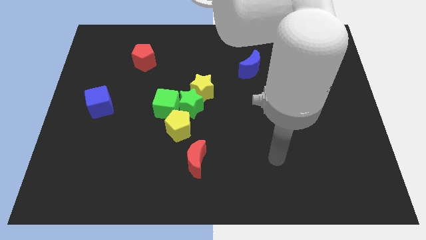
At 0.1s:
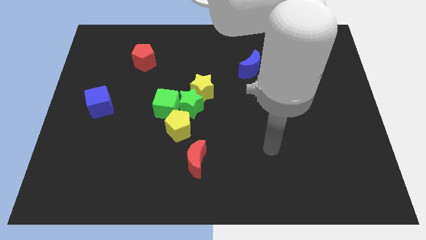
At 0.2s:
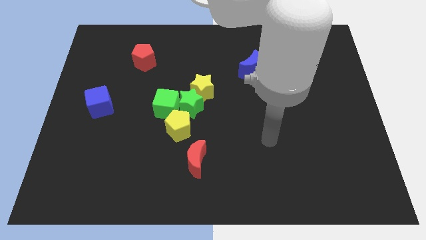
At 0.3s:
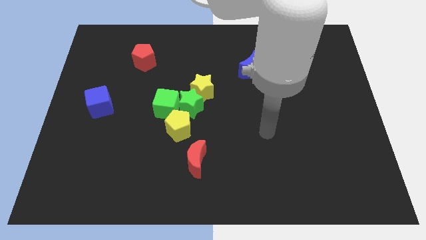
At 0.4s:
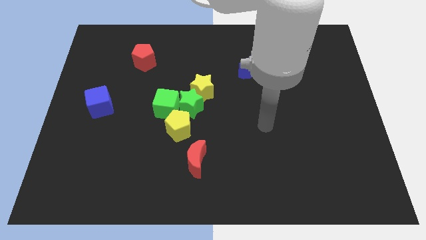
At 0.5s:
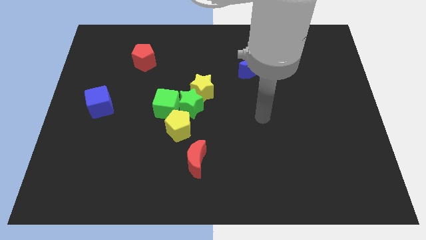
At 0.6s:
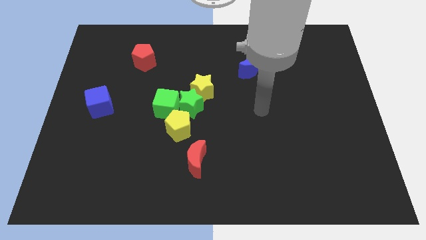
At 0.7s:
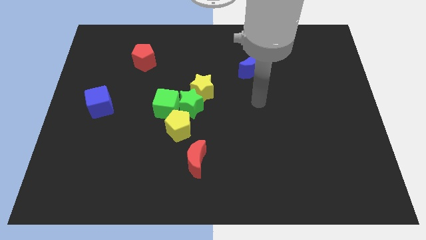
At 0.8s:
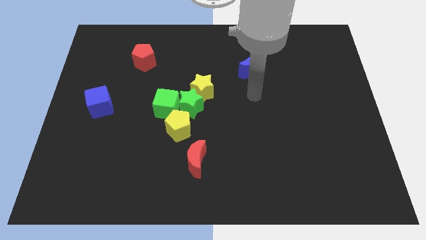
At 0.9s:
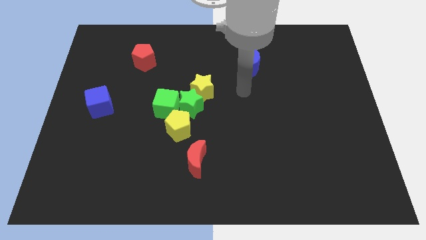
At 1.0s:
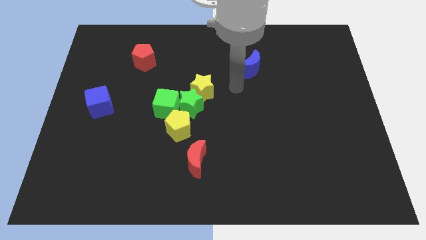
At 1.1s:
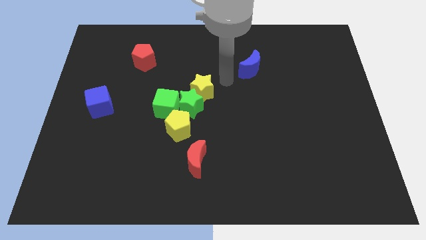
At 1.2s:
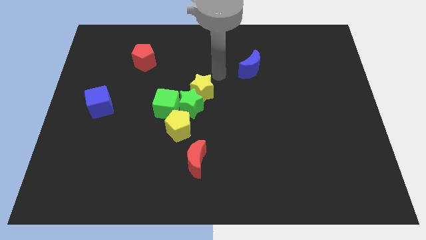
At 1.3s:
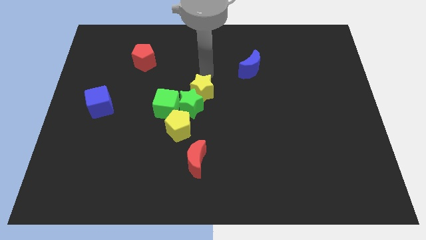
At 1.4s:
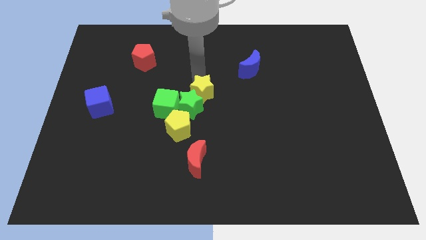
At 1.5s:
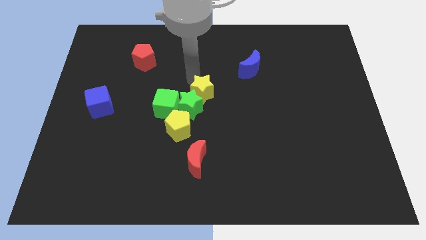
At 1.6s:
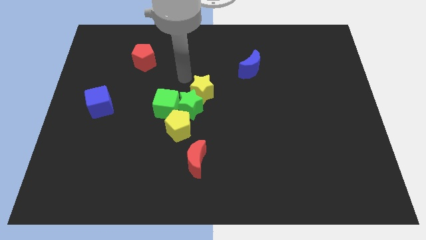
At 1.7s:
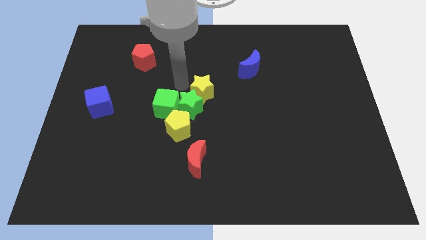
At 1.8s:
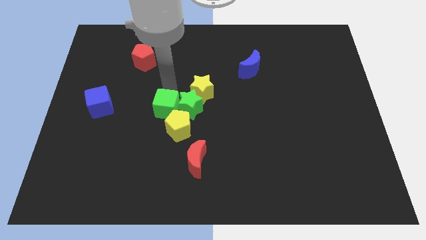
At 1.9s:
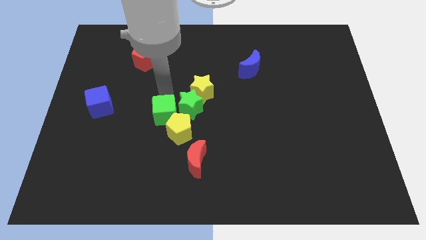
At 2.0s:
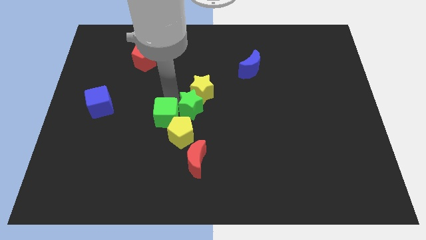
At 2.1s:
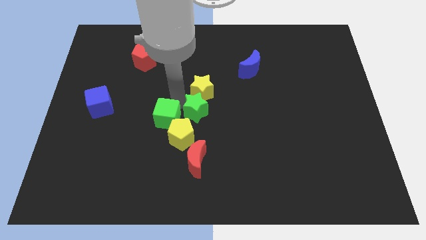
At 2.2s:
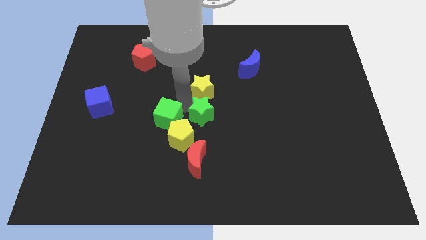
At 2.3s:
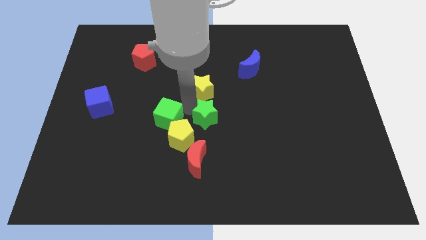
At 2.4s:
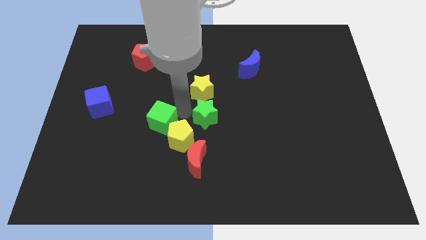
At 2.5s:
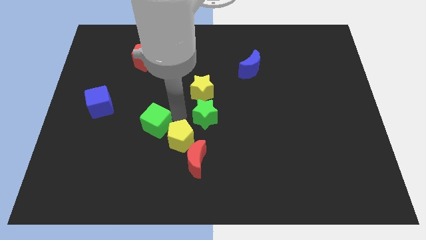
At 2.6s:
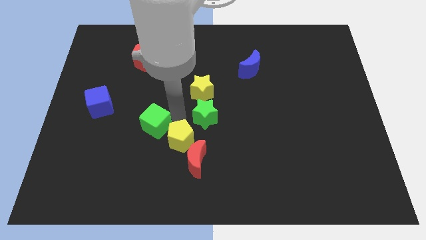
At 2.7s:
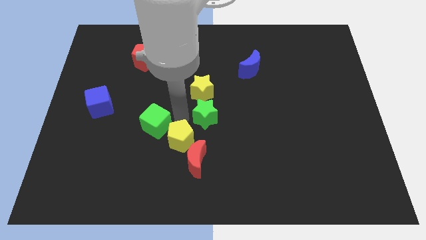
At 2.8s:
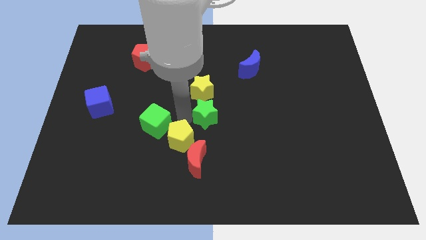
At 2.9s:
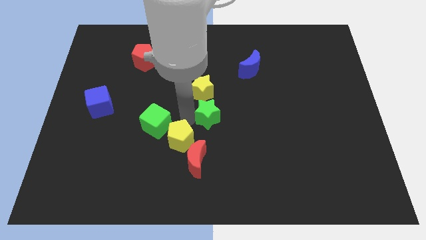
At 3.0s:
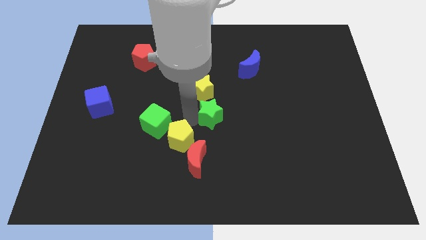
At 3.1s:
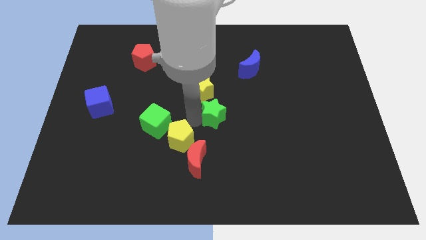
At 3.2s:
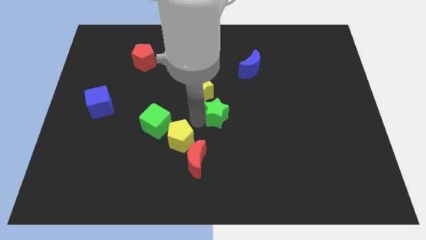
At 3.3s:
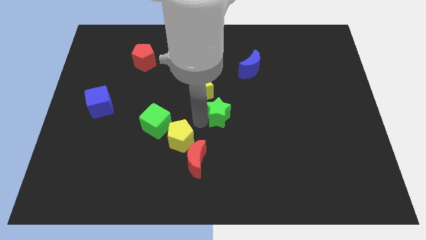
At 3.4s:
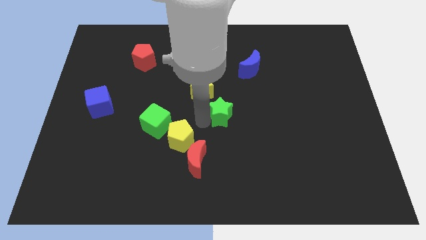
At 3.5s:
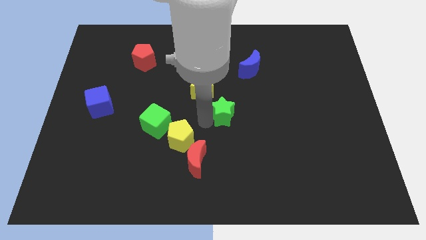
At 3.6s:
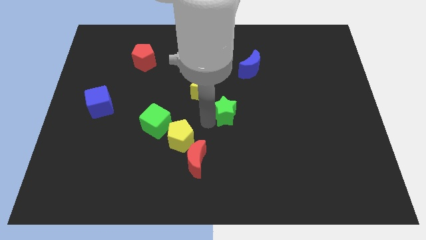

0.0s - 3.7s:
pull the green star apart from the group

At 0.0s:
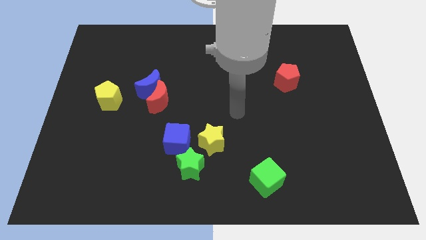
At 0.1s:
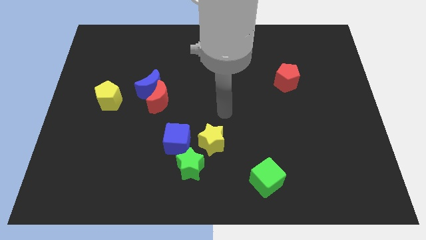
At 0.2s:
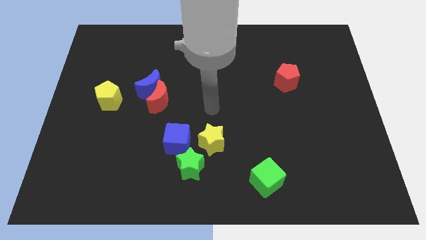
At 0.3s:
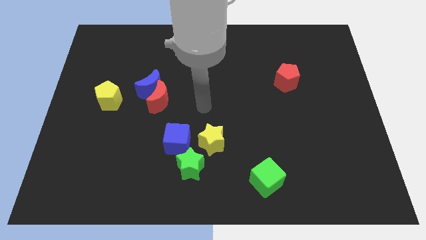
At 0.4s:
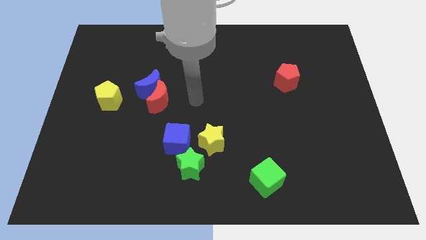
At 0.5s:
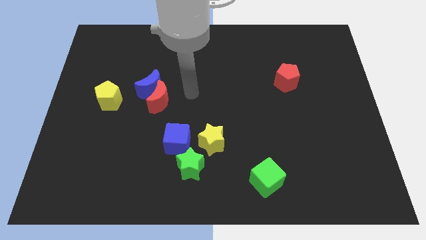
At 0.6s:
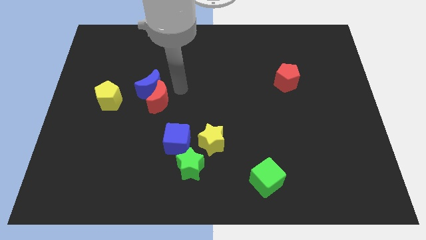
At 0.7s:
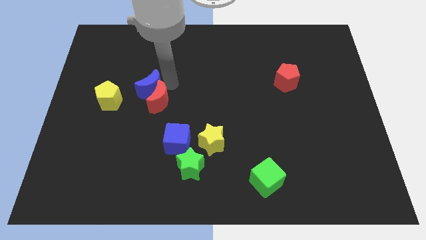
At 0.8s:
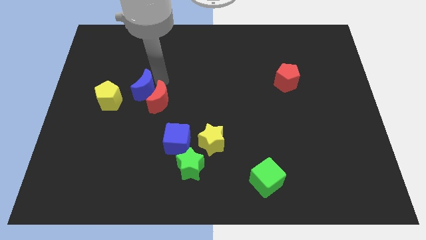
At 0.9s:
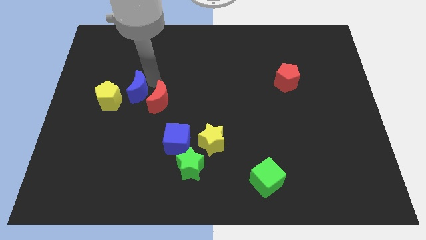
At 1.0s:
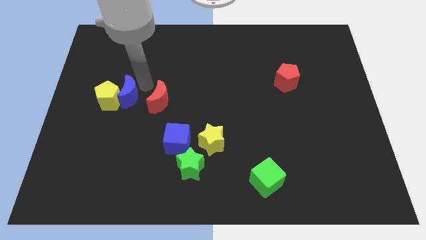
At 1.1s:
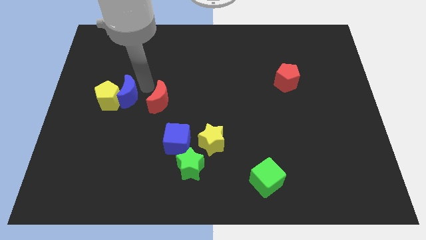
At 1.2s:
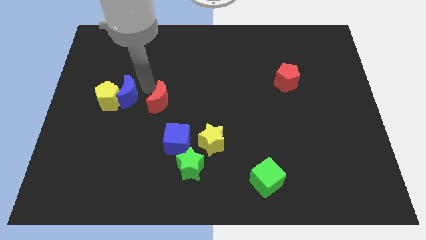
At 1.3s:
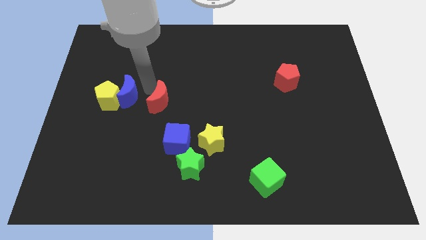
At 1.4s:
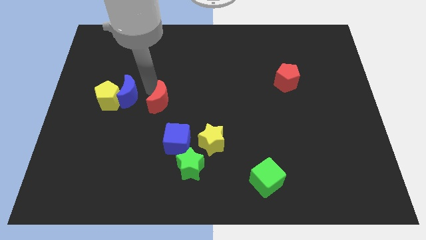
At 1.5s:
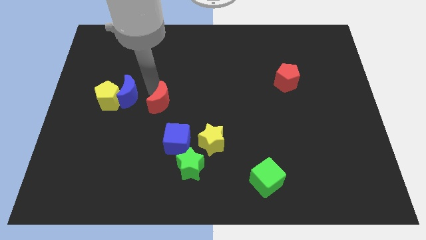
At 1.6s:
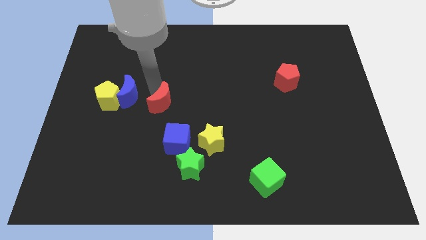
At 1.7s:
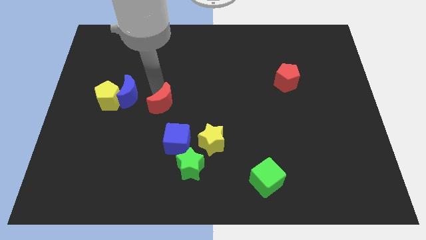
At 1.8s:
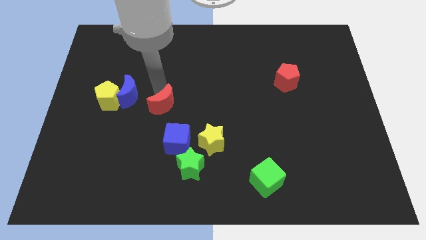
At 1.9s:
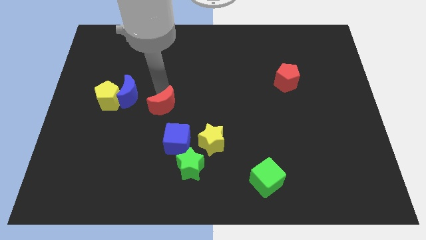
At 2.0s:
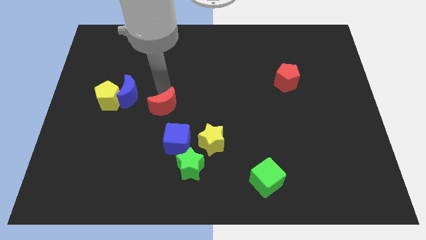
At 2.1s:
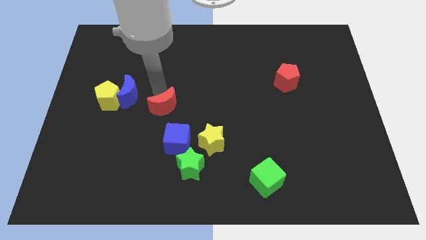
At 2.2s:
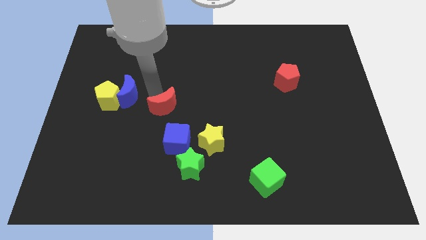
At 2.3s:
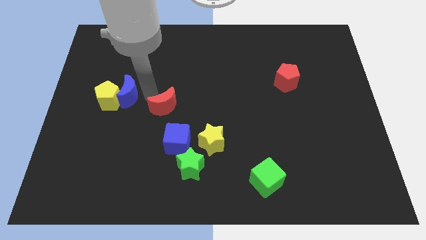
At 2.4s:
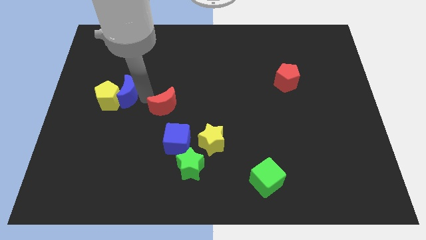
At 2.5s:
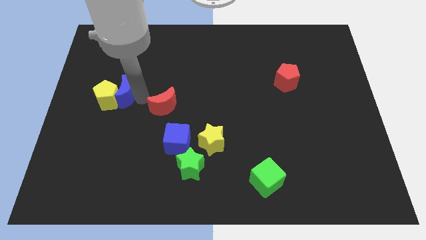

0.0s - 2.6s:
pull the red moon apart from the blue moon

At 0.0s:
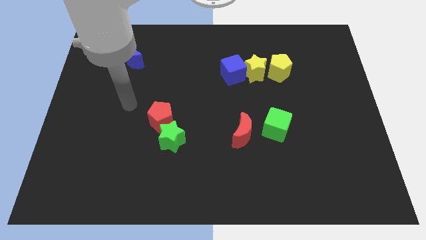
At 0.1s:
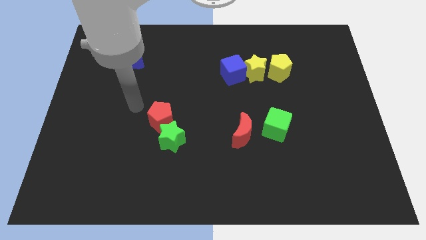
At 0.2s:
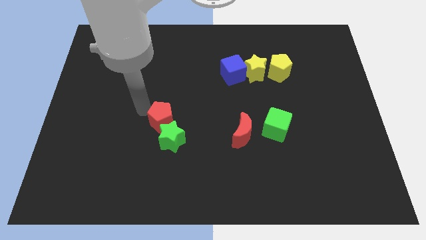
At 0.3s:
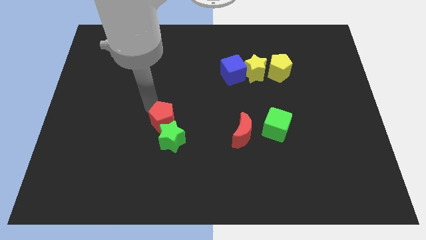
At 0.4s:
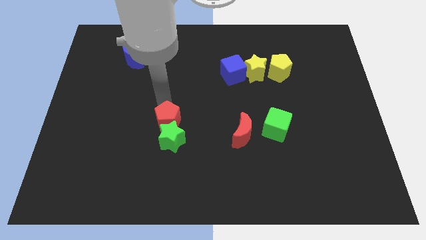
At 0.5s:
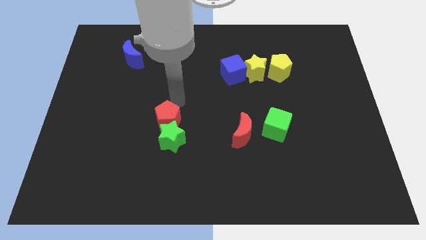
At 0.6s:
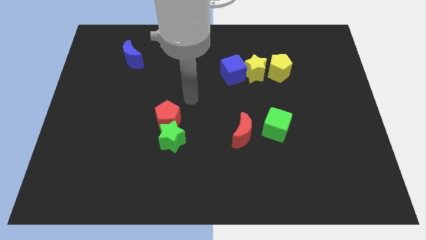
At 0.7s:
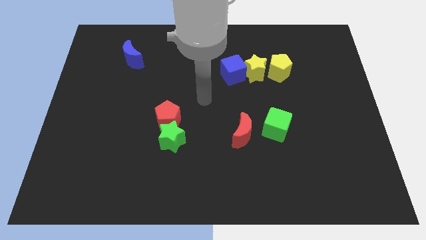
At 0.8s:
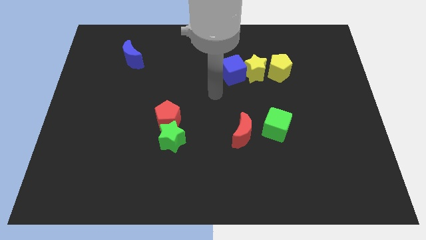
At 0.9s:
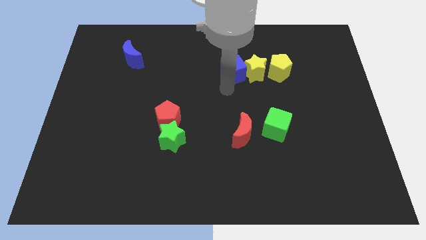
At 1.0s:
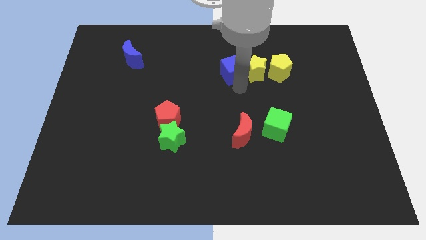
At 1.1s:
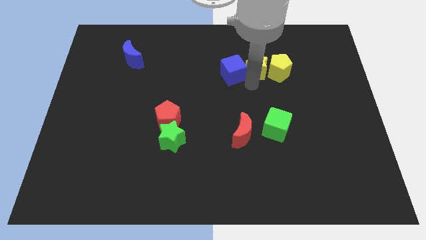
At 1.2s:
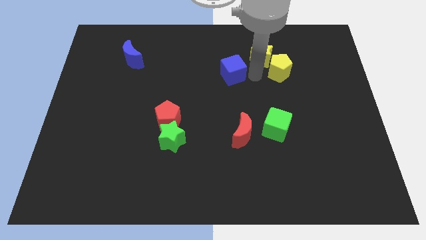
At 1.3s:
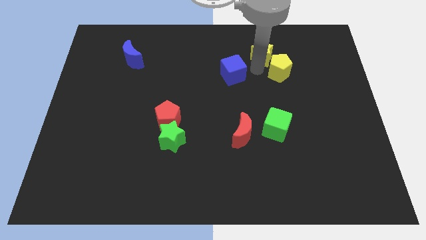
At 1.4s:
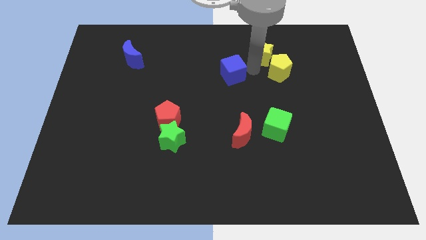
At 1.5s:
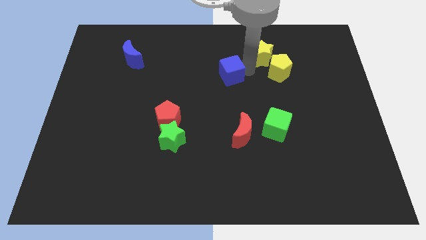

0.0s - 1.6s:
pull the blue cube apart from the yellow star

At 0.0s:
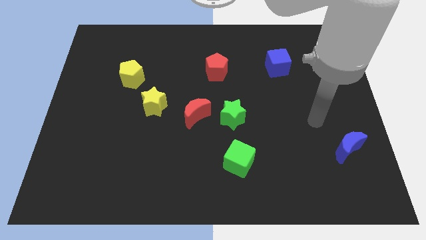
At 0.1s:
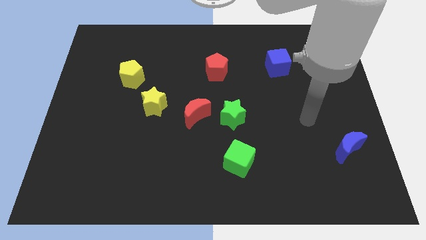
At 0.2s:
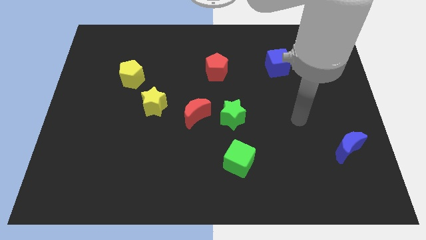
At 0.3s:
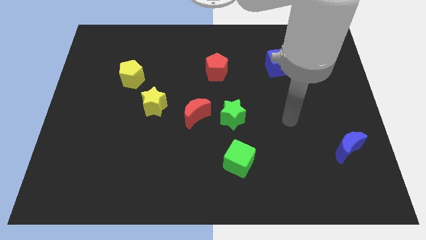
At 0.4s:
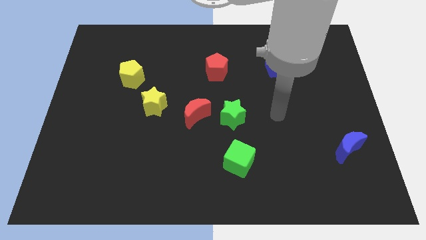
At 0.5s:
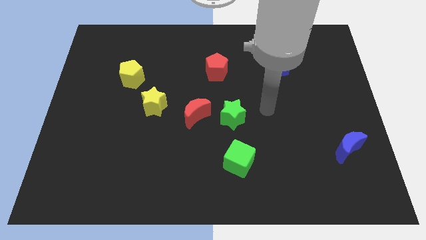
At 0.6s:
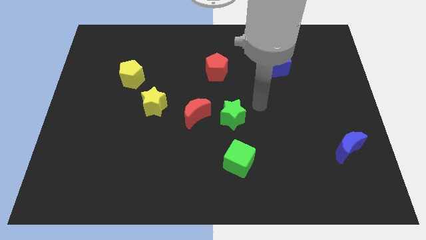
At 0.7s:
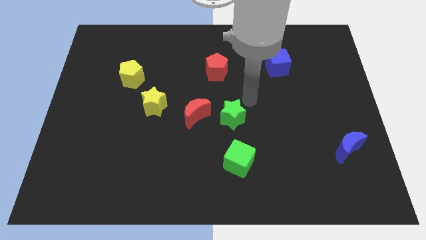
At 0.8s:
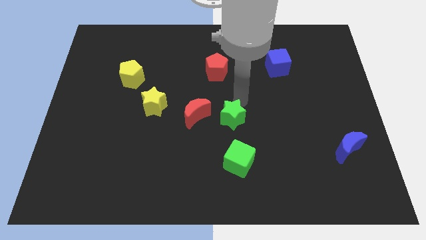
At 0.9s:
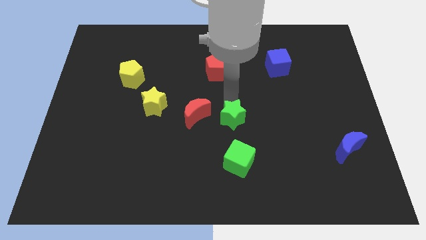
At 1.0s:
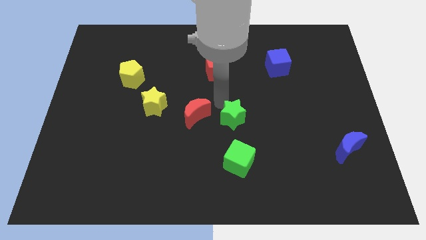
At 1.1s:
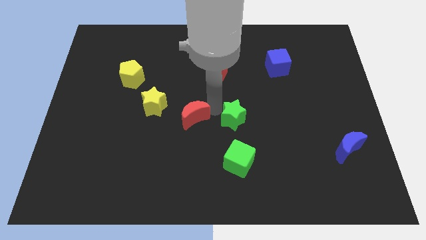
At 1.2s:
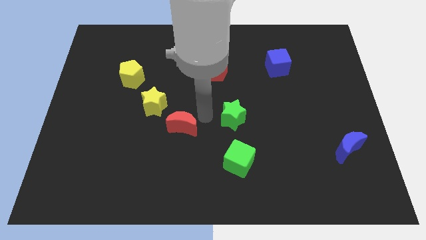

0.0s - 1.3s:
separate the green star from the red moon

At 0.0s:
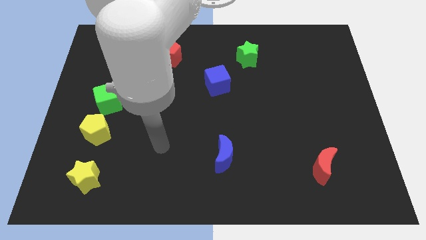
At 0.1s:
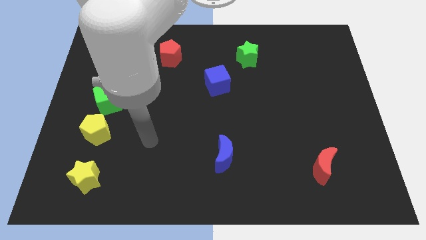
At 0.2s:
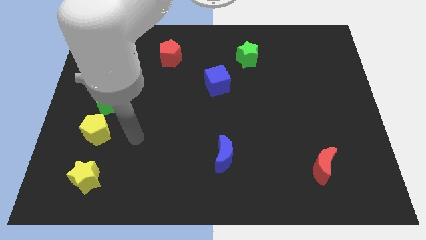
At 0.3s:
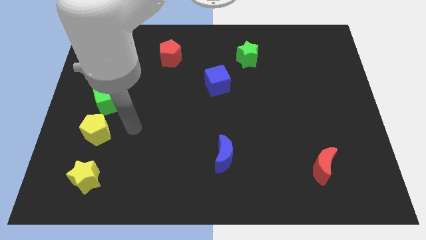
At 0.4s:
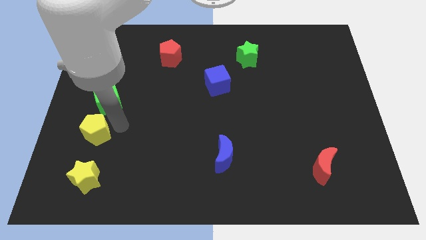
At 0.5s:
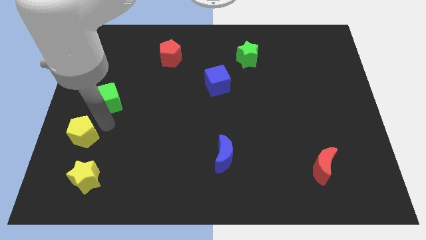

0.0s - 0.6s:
separate the green cube from the yellow pentagon
